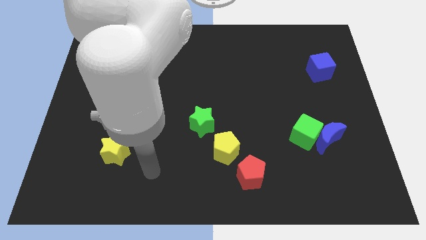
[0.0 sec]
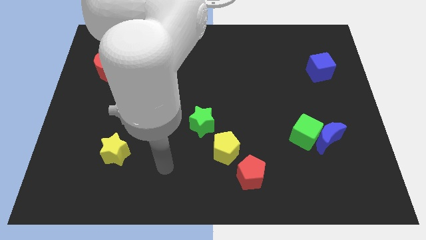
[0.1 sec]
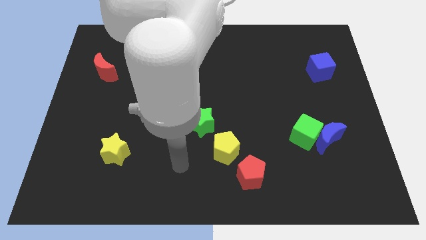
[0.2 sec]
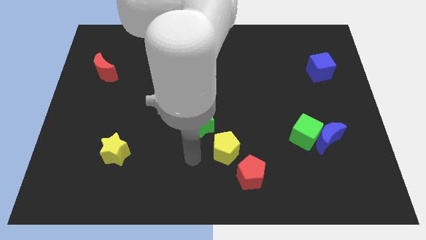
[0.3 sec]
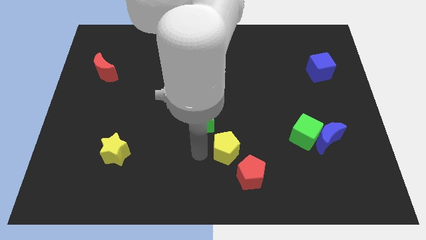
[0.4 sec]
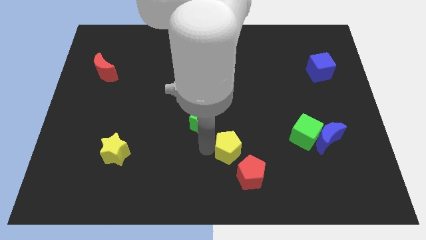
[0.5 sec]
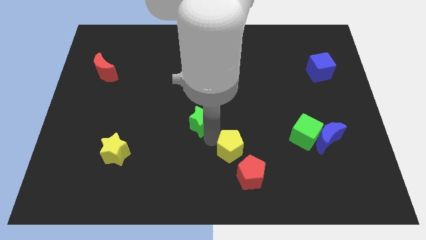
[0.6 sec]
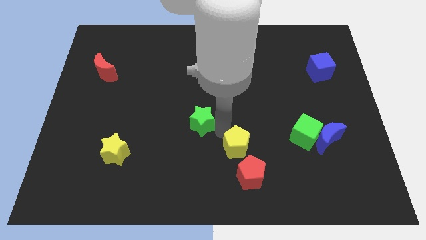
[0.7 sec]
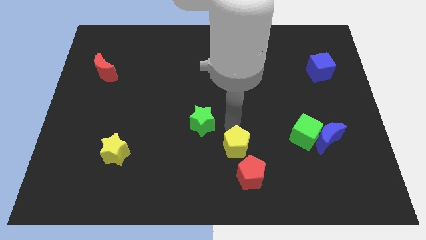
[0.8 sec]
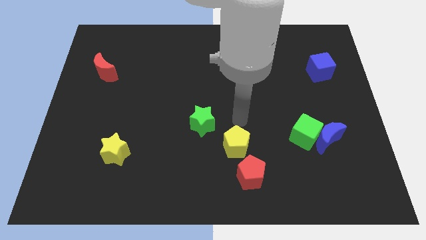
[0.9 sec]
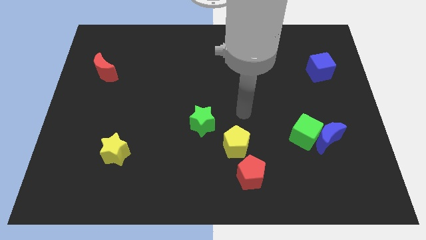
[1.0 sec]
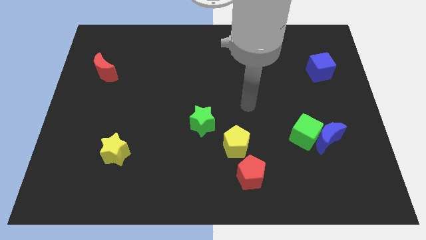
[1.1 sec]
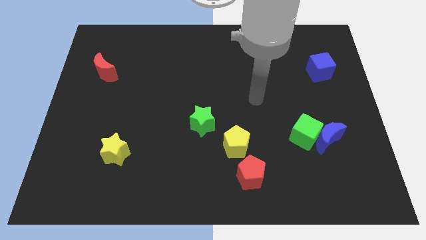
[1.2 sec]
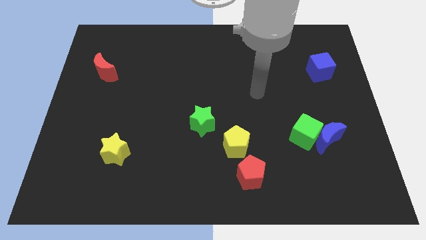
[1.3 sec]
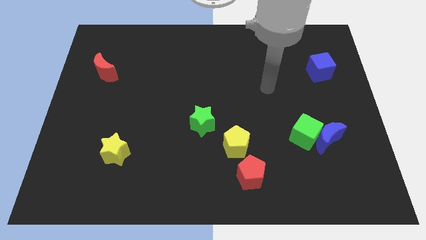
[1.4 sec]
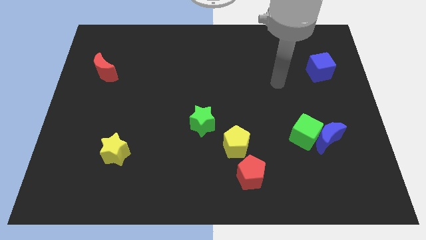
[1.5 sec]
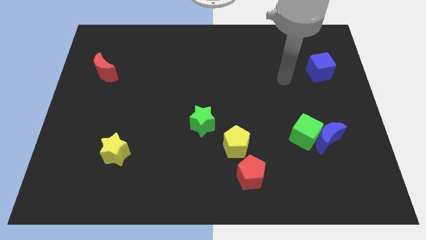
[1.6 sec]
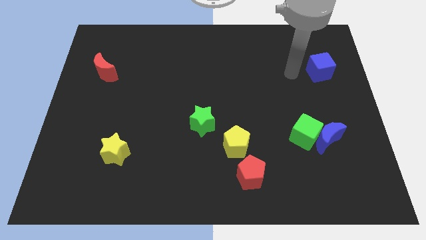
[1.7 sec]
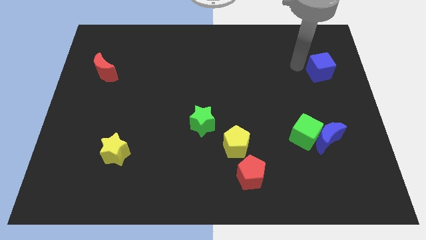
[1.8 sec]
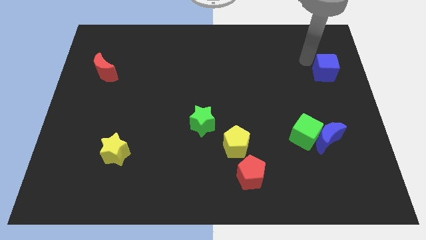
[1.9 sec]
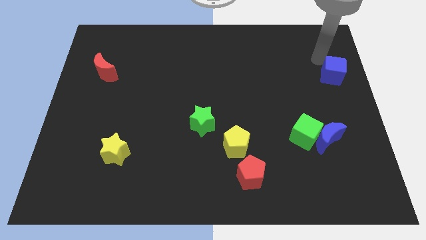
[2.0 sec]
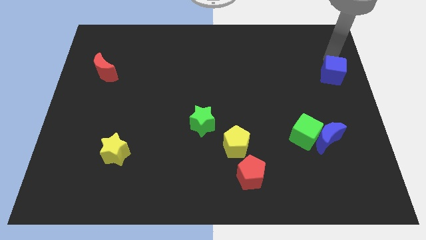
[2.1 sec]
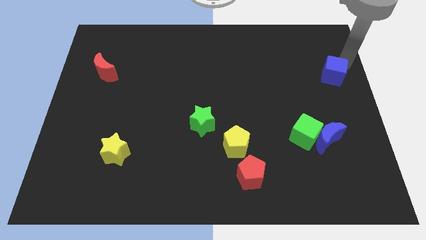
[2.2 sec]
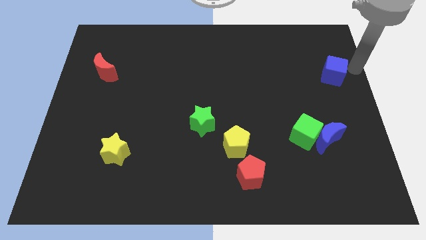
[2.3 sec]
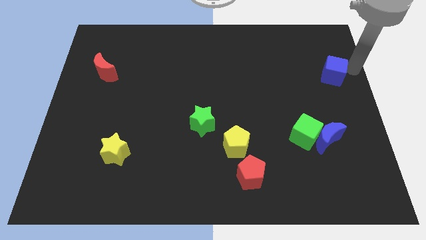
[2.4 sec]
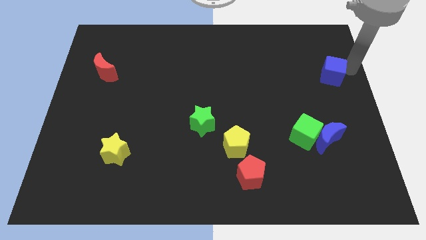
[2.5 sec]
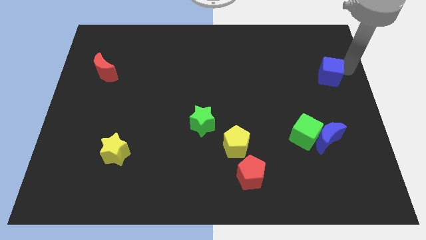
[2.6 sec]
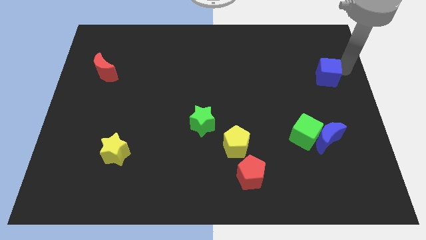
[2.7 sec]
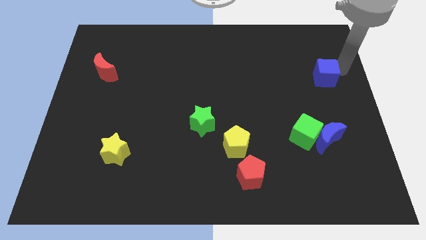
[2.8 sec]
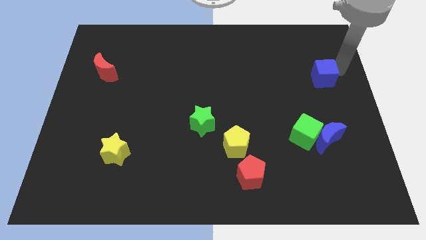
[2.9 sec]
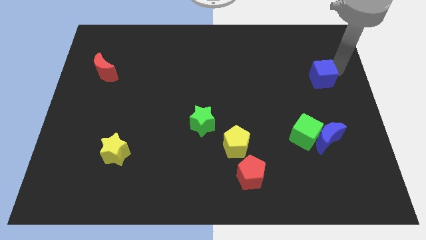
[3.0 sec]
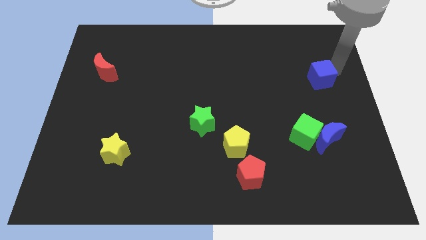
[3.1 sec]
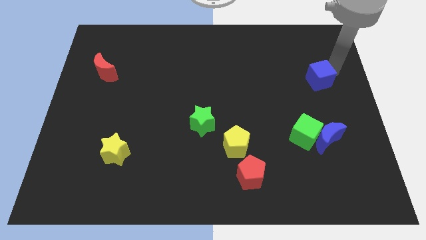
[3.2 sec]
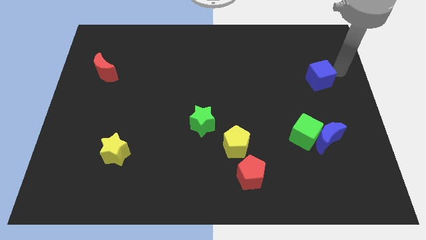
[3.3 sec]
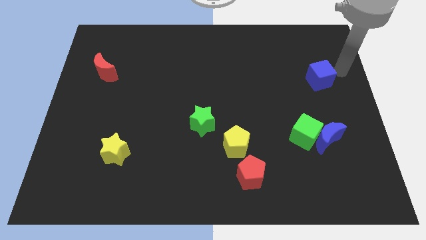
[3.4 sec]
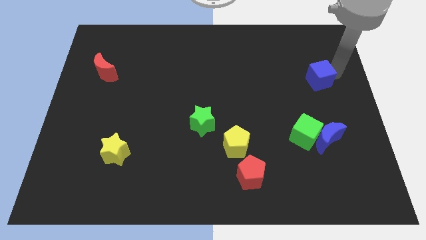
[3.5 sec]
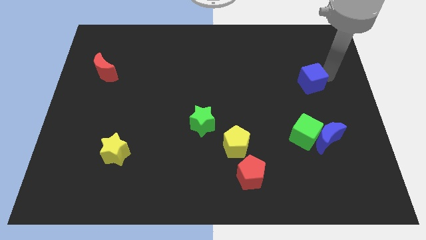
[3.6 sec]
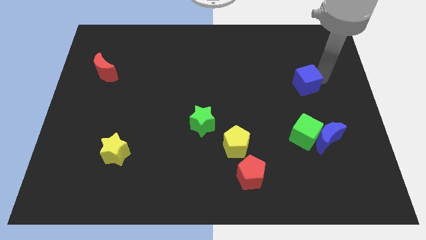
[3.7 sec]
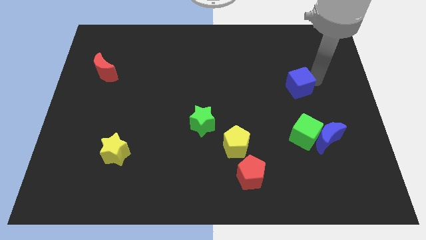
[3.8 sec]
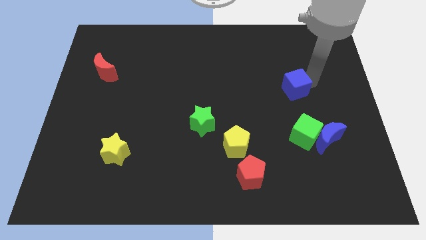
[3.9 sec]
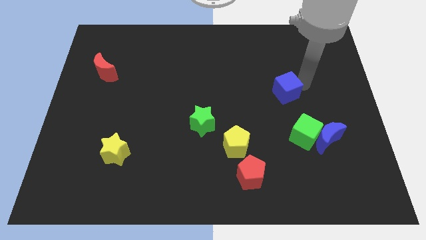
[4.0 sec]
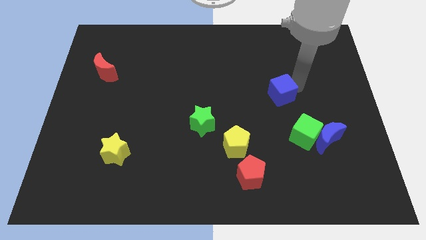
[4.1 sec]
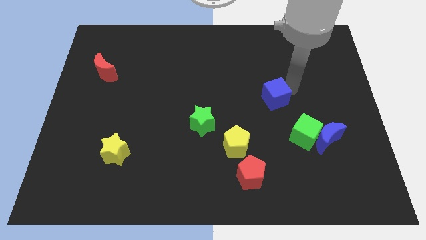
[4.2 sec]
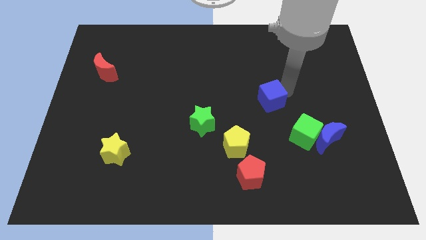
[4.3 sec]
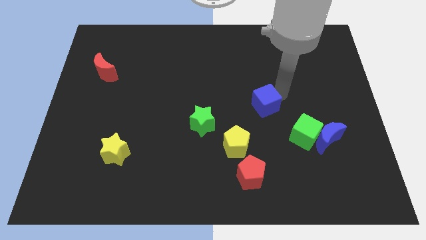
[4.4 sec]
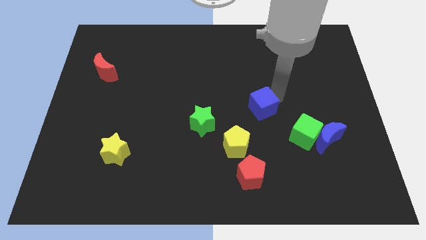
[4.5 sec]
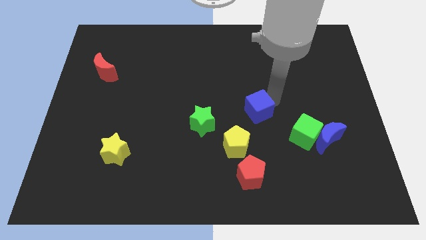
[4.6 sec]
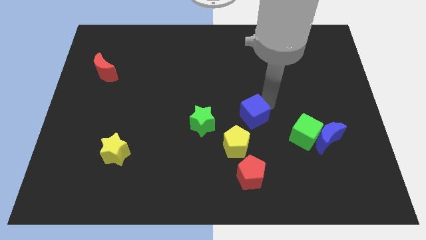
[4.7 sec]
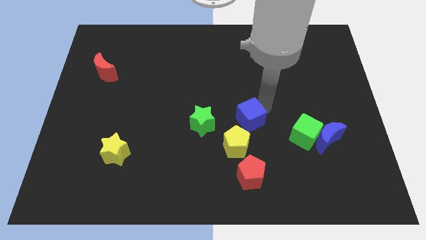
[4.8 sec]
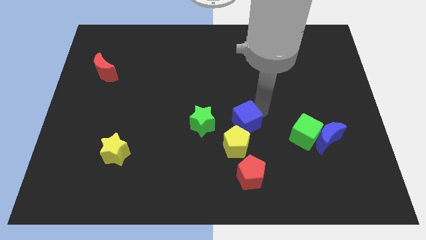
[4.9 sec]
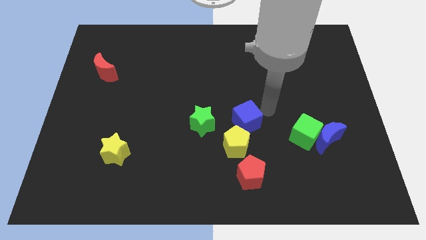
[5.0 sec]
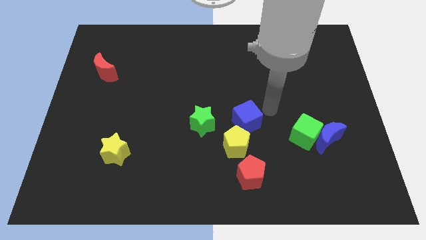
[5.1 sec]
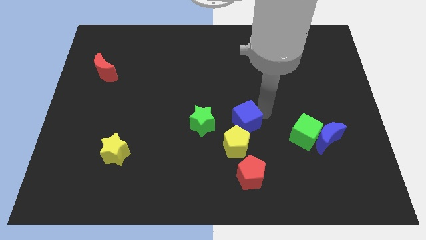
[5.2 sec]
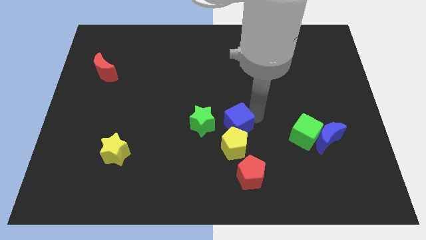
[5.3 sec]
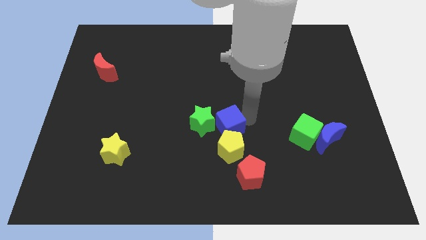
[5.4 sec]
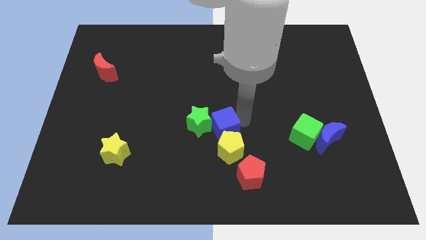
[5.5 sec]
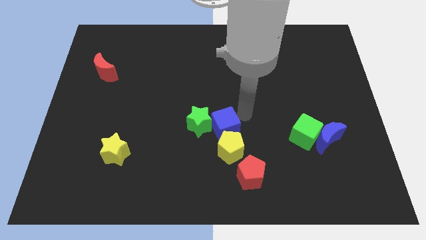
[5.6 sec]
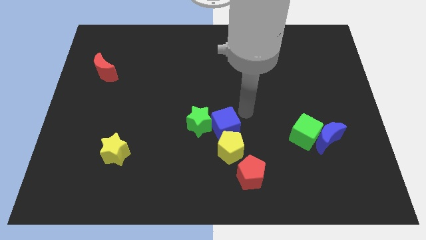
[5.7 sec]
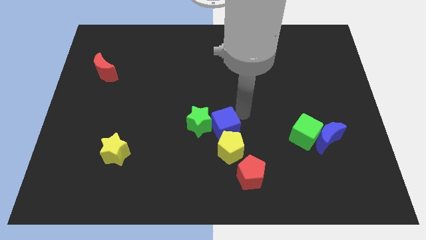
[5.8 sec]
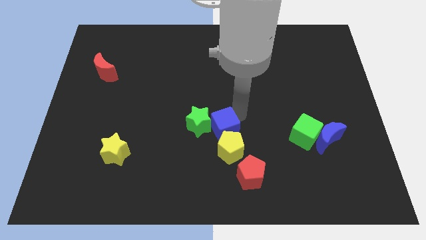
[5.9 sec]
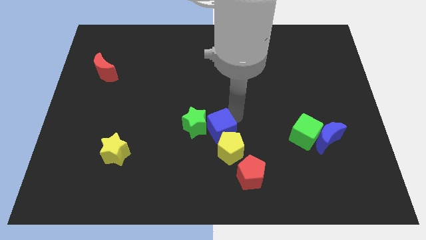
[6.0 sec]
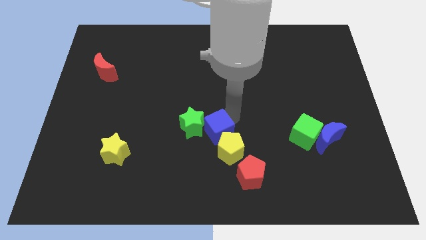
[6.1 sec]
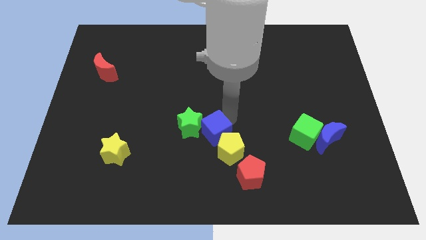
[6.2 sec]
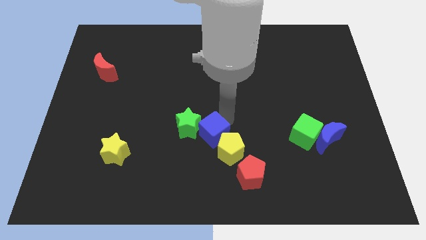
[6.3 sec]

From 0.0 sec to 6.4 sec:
move the blue cube left of the yellow pentagon

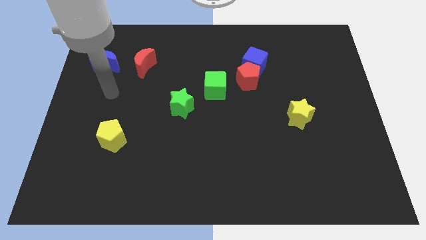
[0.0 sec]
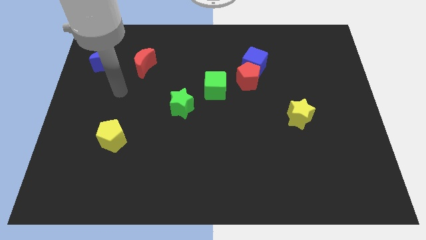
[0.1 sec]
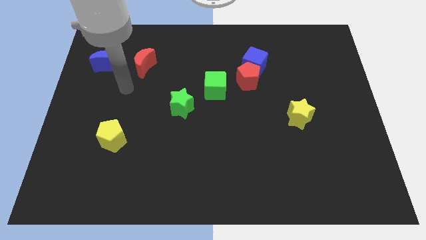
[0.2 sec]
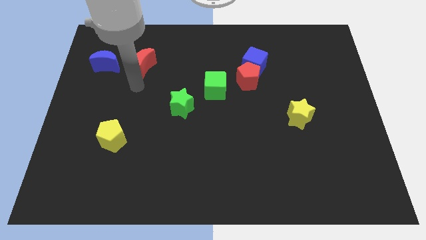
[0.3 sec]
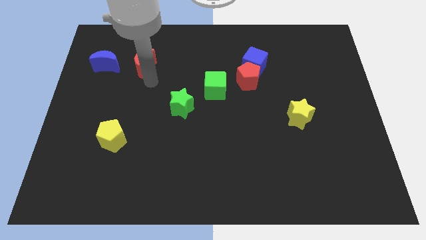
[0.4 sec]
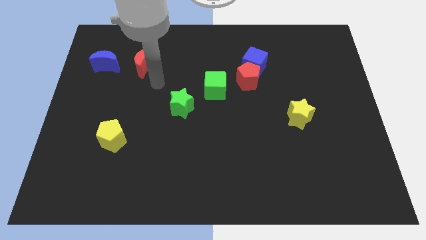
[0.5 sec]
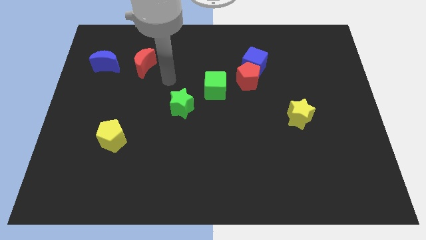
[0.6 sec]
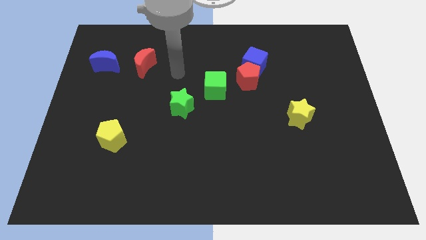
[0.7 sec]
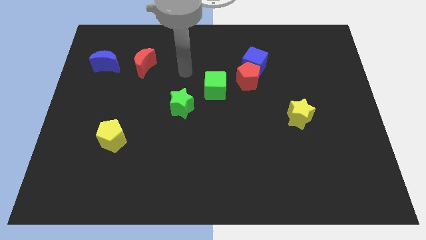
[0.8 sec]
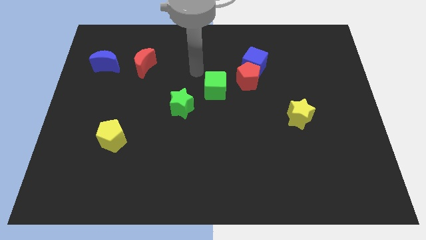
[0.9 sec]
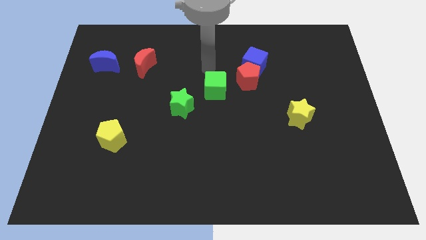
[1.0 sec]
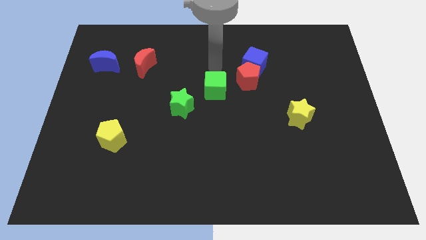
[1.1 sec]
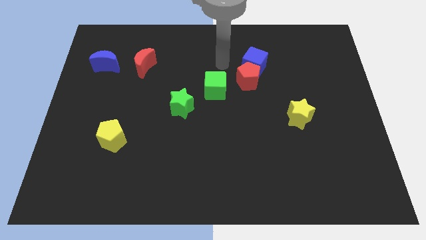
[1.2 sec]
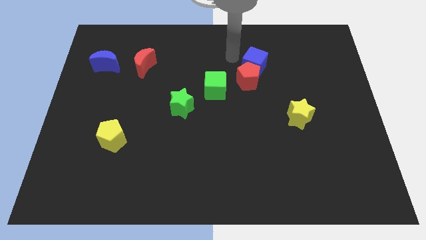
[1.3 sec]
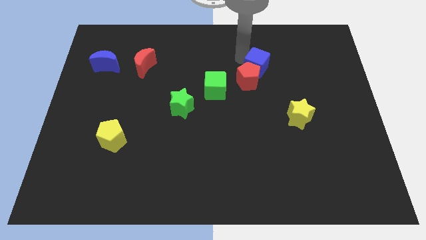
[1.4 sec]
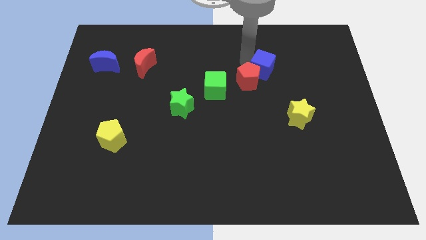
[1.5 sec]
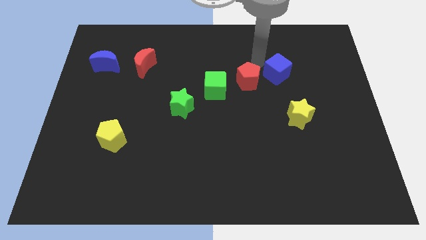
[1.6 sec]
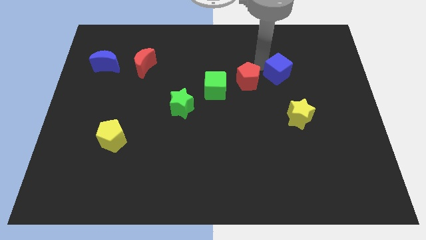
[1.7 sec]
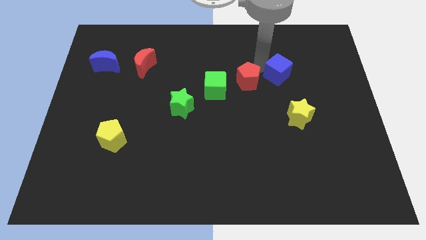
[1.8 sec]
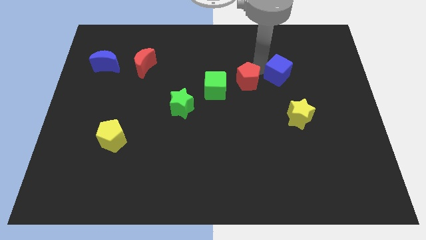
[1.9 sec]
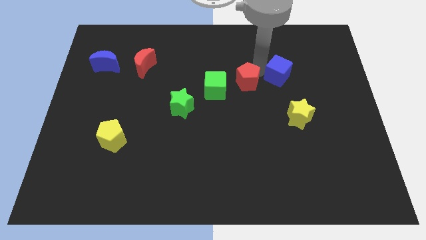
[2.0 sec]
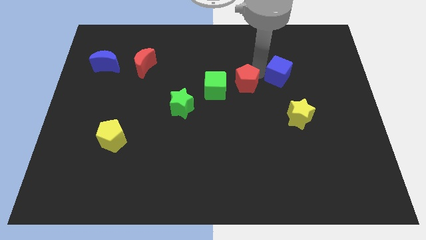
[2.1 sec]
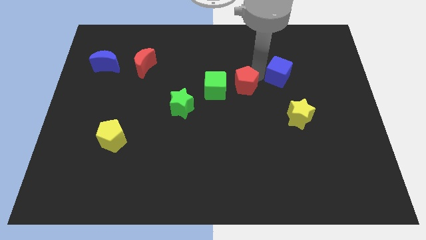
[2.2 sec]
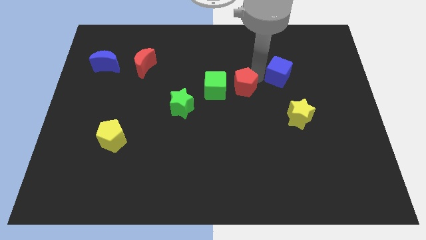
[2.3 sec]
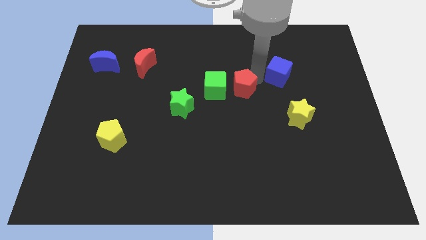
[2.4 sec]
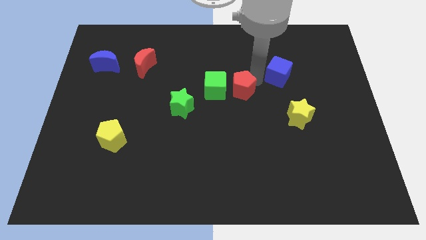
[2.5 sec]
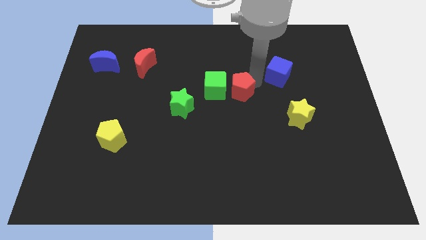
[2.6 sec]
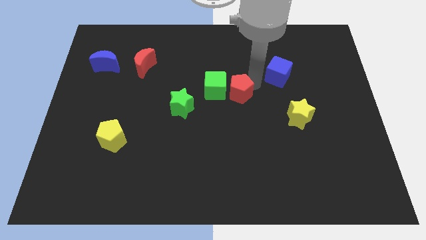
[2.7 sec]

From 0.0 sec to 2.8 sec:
push the red pentagon to the right of the green star
